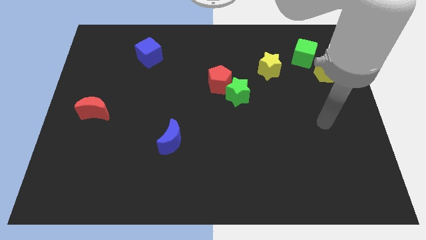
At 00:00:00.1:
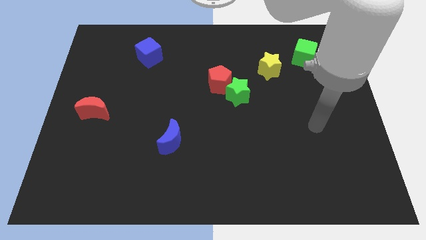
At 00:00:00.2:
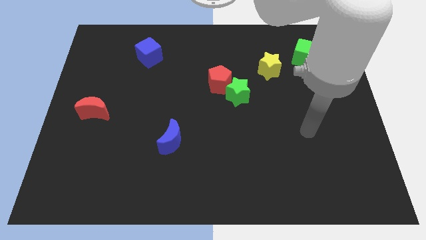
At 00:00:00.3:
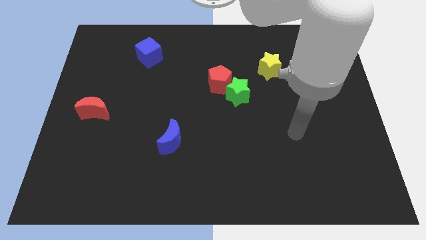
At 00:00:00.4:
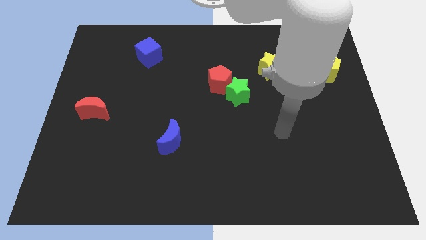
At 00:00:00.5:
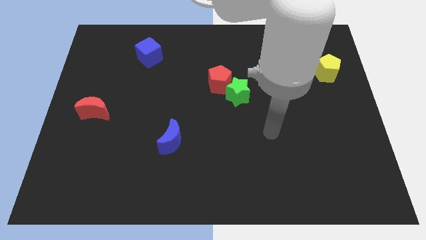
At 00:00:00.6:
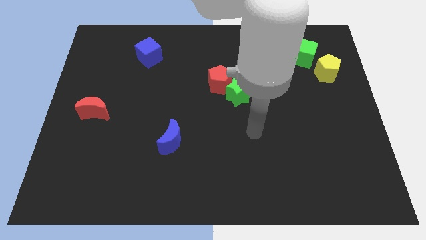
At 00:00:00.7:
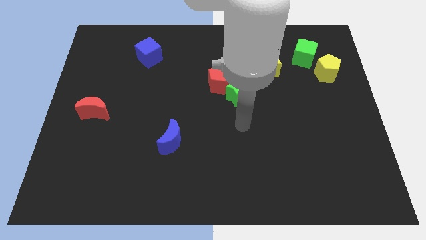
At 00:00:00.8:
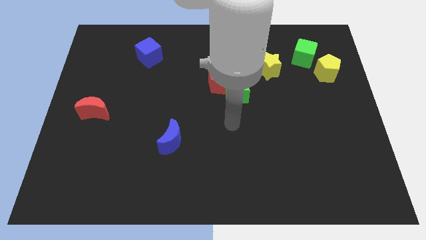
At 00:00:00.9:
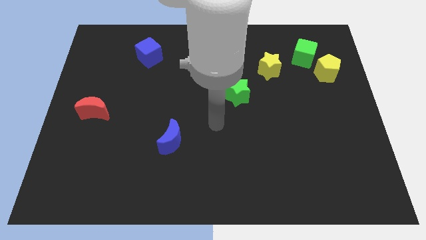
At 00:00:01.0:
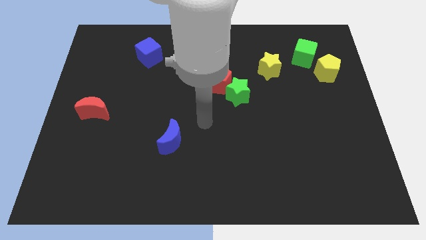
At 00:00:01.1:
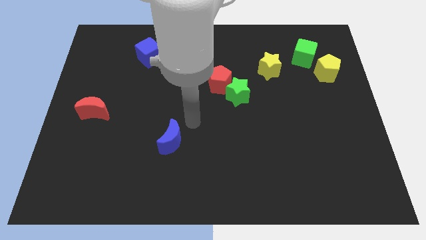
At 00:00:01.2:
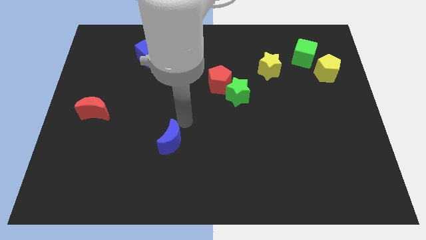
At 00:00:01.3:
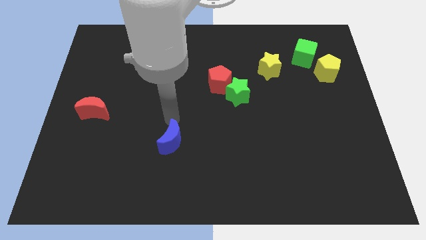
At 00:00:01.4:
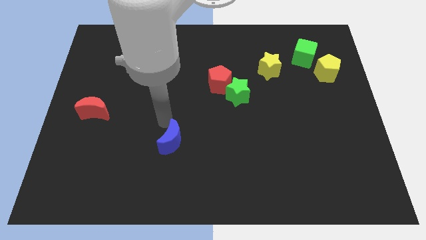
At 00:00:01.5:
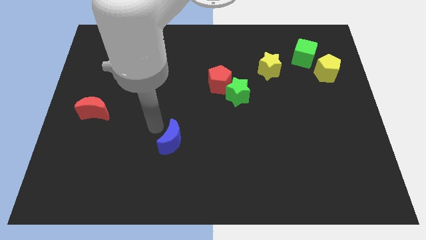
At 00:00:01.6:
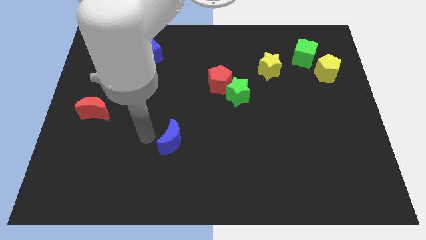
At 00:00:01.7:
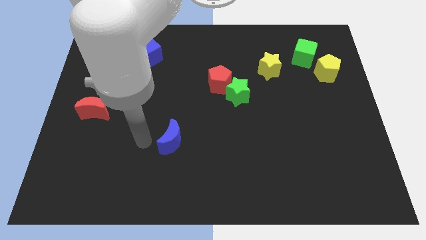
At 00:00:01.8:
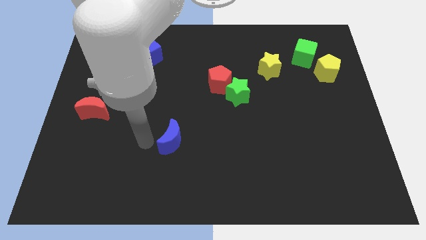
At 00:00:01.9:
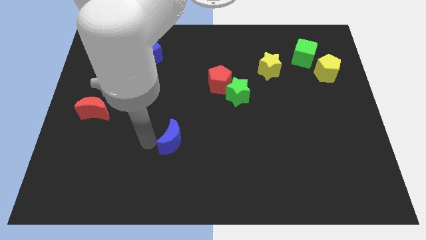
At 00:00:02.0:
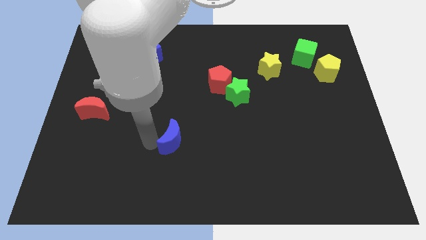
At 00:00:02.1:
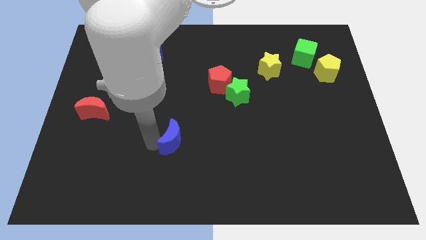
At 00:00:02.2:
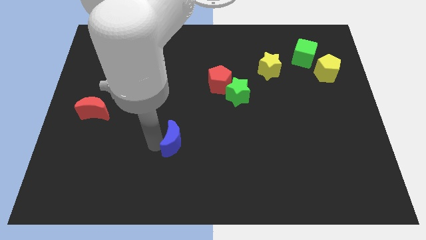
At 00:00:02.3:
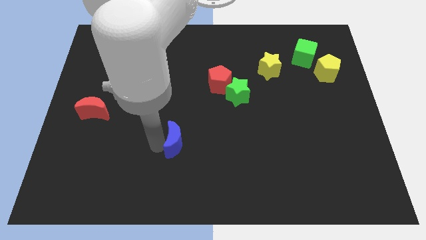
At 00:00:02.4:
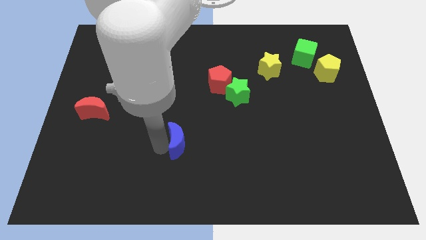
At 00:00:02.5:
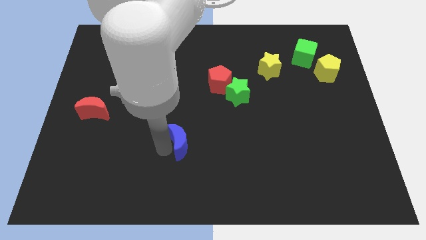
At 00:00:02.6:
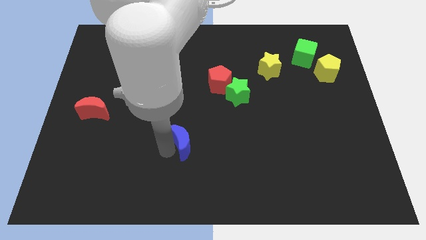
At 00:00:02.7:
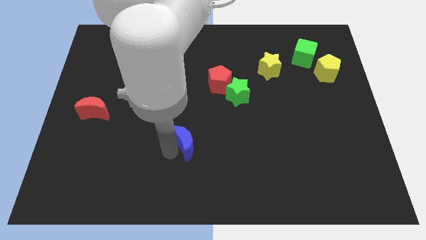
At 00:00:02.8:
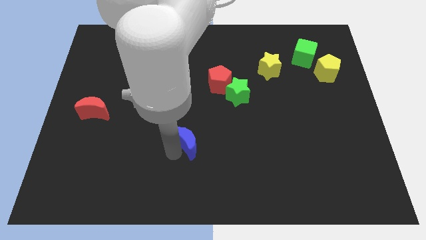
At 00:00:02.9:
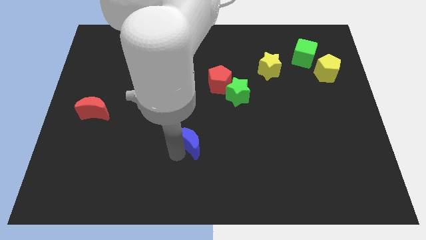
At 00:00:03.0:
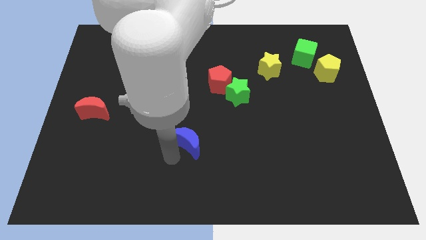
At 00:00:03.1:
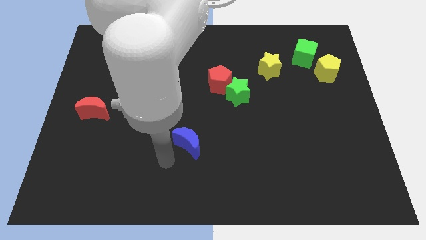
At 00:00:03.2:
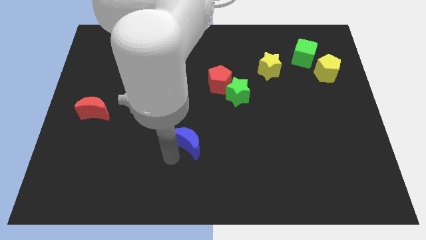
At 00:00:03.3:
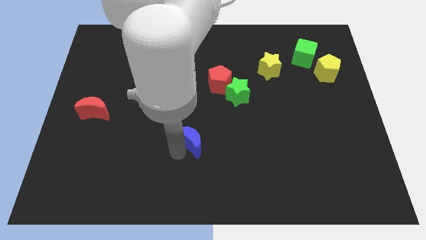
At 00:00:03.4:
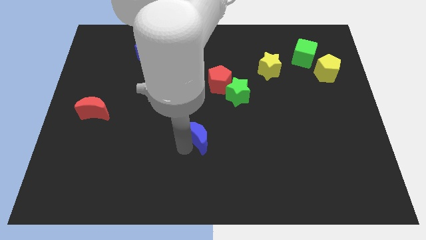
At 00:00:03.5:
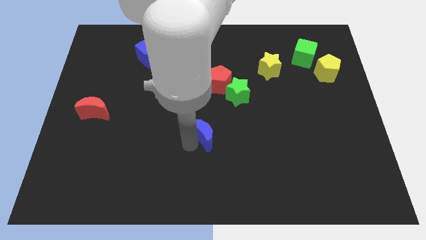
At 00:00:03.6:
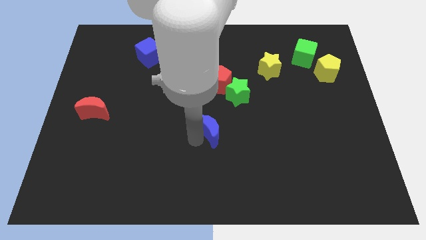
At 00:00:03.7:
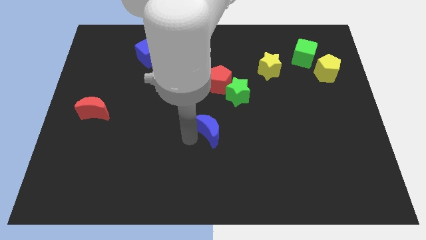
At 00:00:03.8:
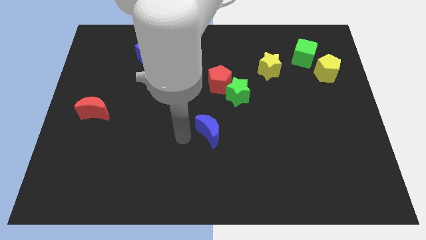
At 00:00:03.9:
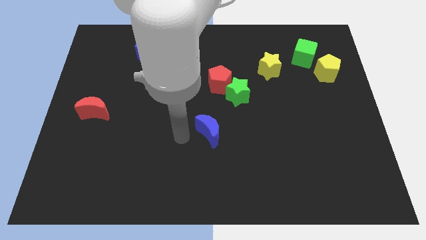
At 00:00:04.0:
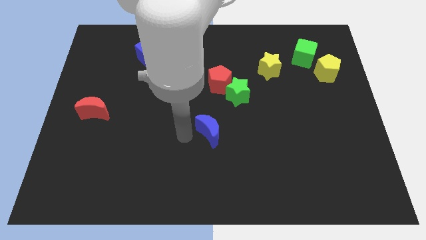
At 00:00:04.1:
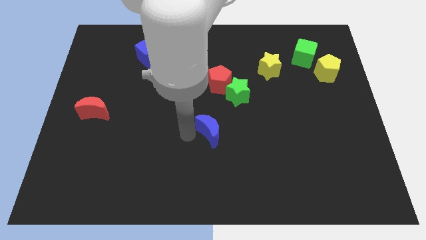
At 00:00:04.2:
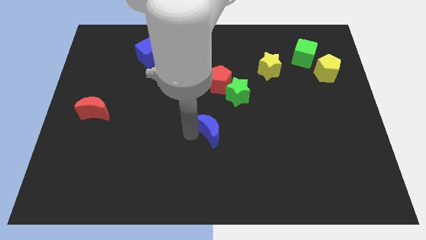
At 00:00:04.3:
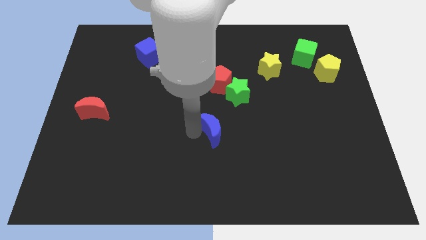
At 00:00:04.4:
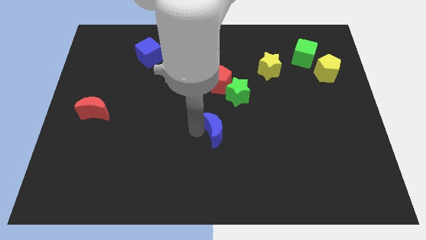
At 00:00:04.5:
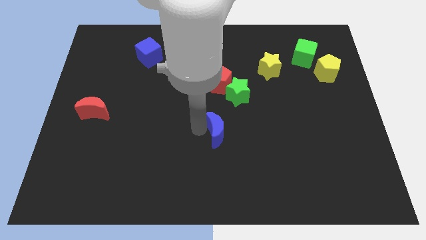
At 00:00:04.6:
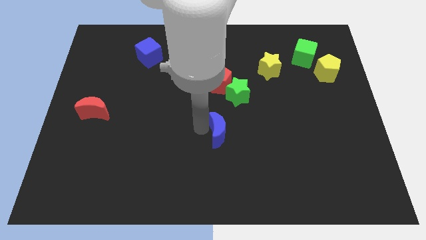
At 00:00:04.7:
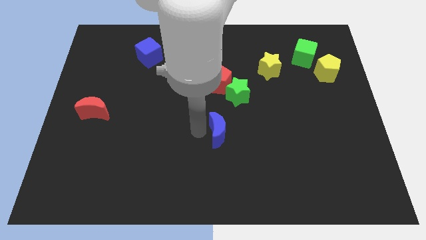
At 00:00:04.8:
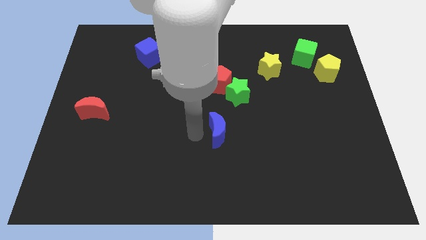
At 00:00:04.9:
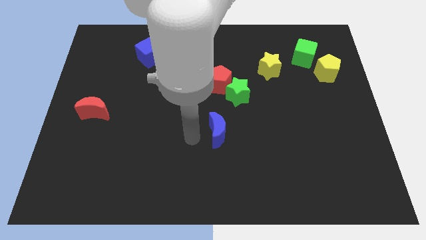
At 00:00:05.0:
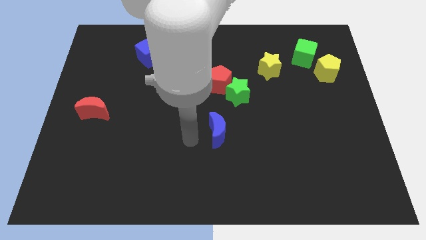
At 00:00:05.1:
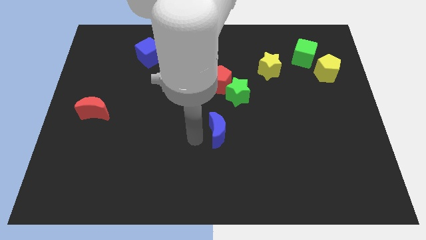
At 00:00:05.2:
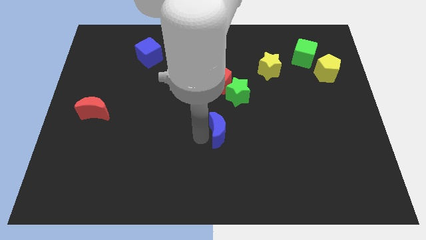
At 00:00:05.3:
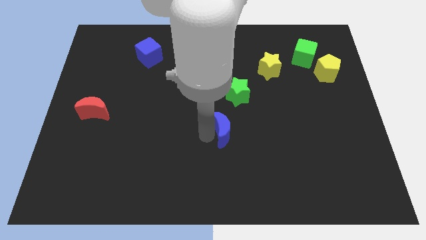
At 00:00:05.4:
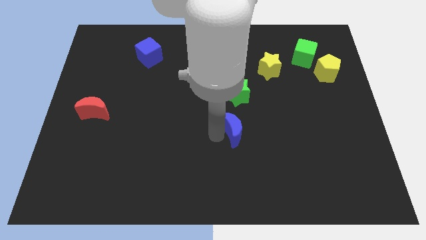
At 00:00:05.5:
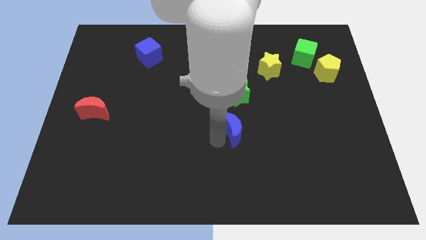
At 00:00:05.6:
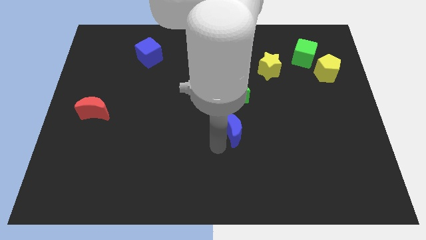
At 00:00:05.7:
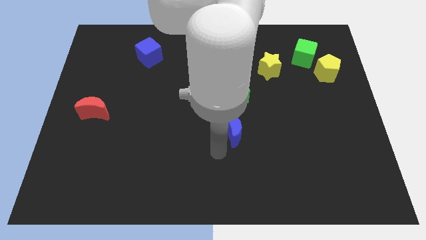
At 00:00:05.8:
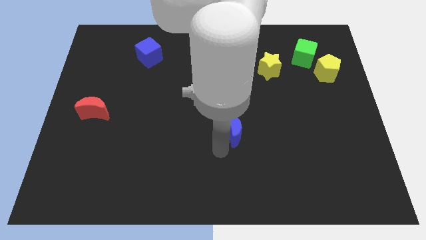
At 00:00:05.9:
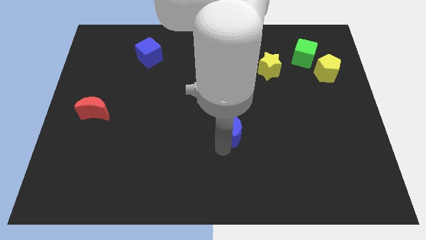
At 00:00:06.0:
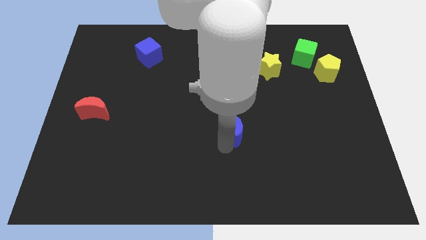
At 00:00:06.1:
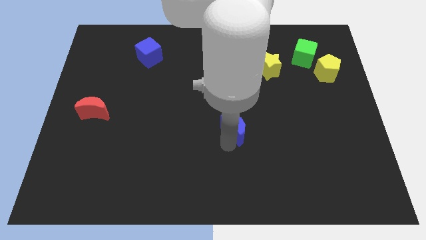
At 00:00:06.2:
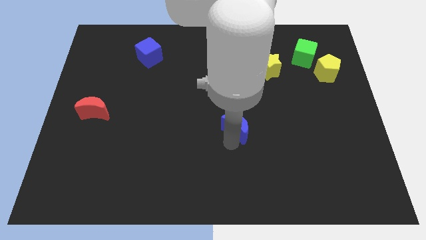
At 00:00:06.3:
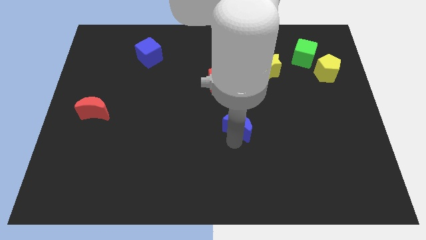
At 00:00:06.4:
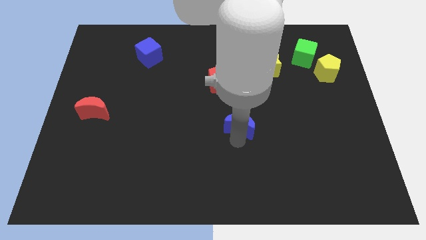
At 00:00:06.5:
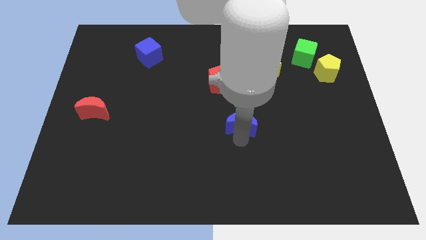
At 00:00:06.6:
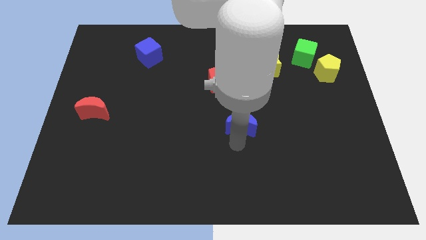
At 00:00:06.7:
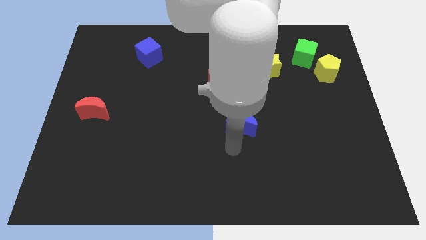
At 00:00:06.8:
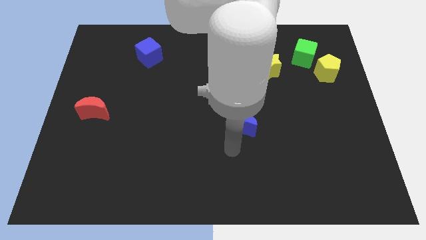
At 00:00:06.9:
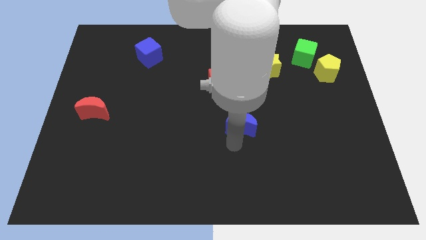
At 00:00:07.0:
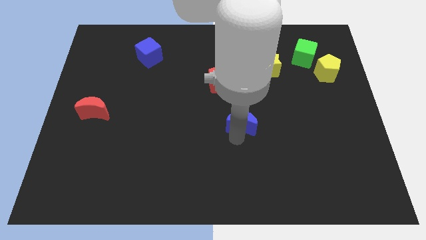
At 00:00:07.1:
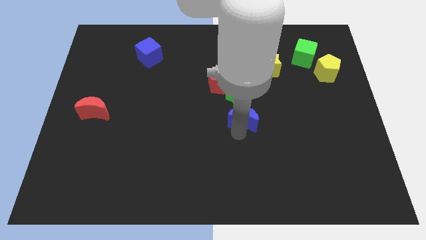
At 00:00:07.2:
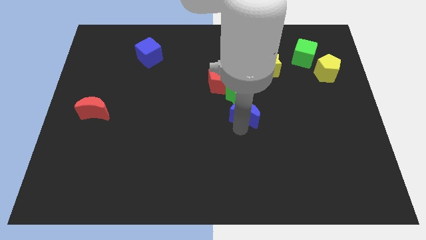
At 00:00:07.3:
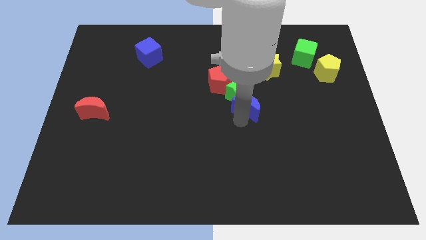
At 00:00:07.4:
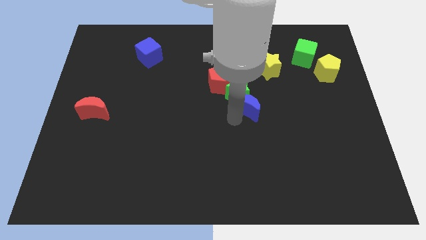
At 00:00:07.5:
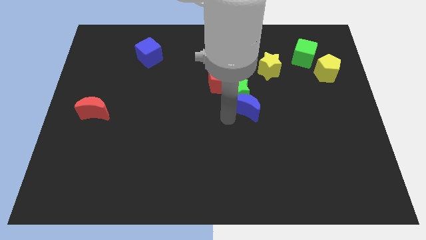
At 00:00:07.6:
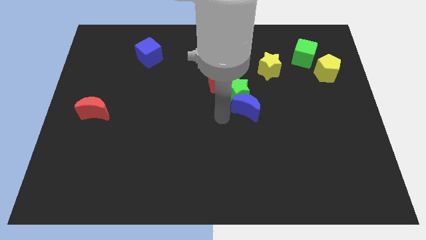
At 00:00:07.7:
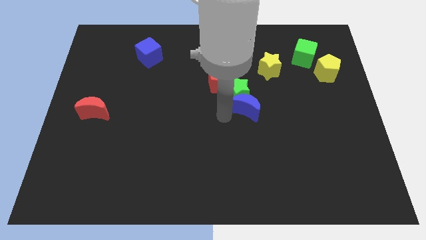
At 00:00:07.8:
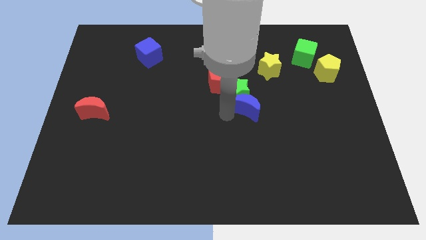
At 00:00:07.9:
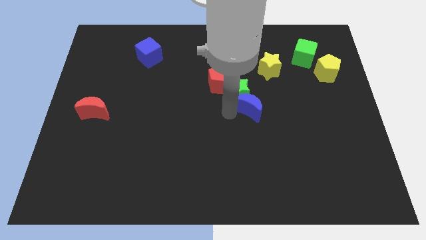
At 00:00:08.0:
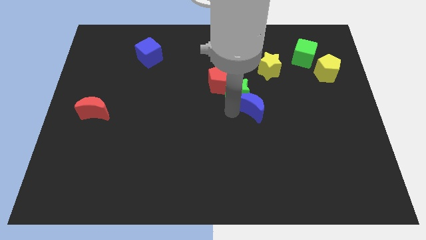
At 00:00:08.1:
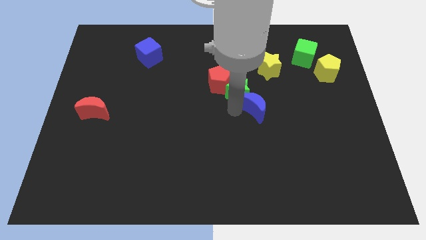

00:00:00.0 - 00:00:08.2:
put the blue moon below the yellow star
